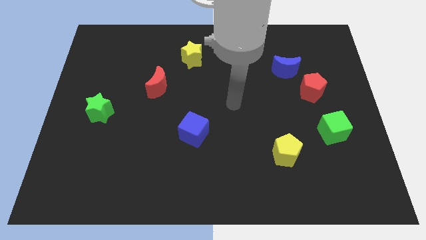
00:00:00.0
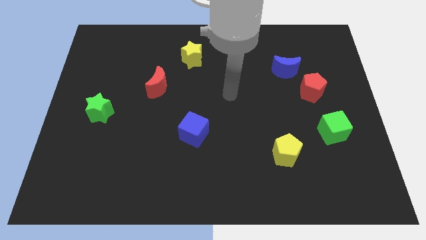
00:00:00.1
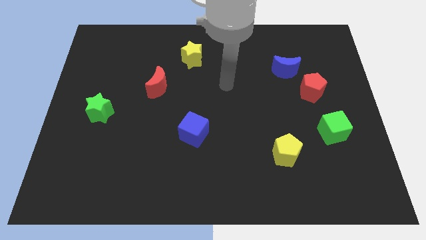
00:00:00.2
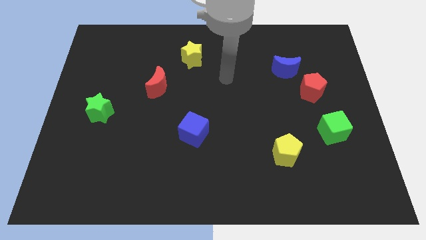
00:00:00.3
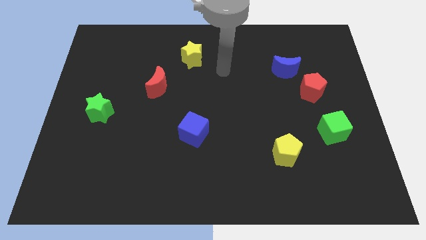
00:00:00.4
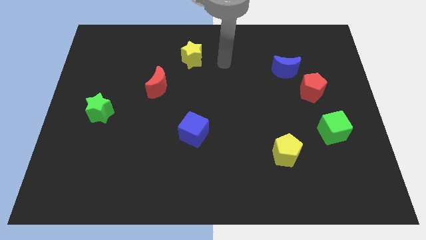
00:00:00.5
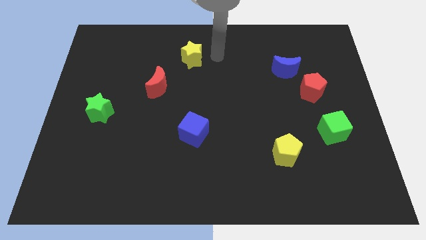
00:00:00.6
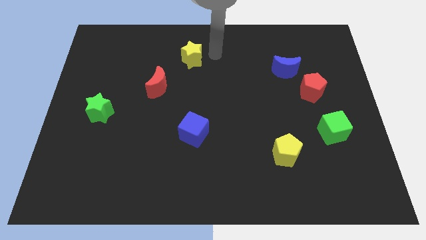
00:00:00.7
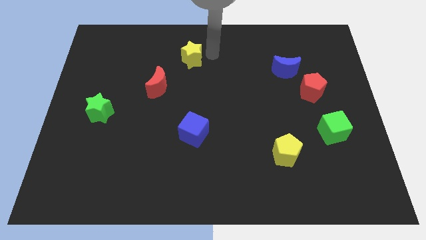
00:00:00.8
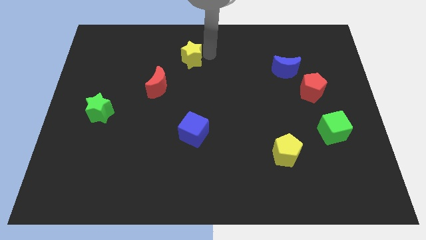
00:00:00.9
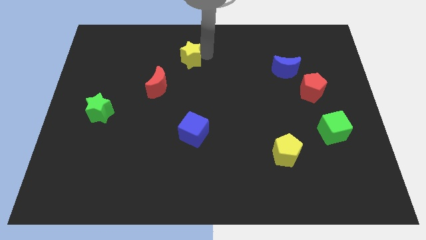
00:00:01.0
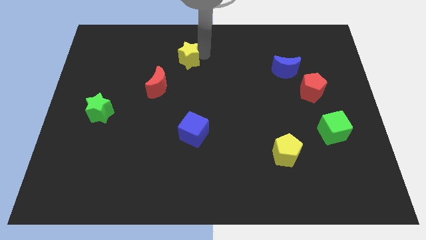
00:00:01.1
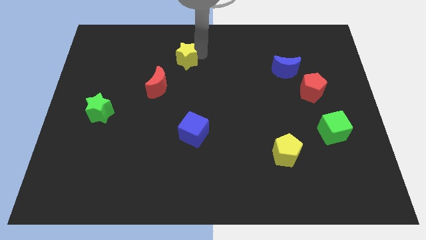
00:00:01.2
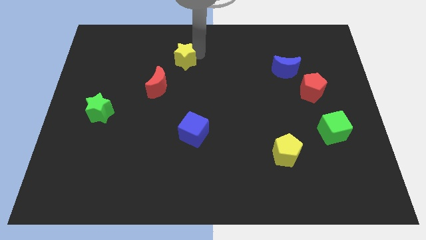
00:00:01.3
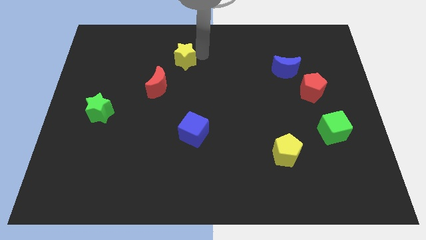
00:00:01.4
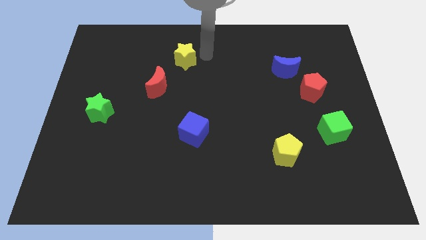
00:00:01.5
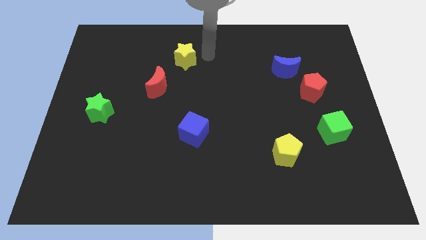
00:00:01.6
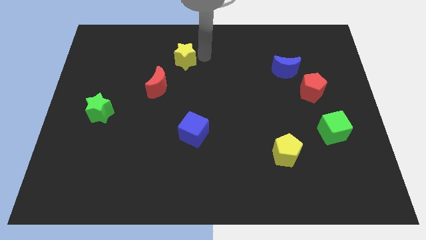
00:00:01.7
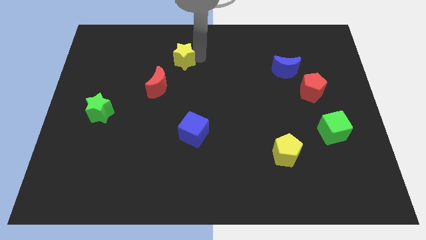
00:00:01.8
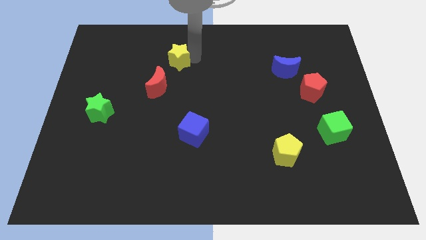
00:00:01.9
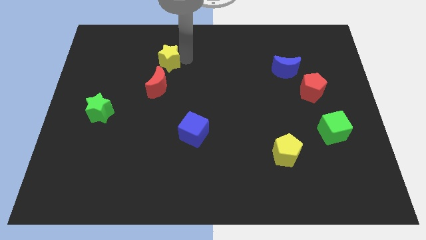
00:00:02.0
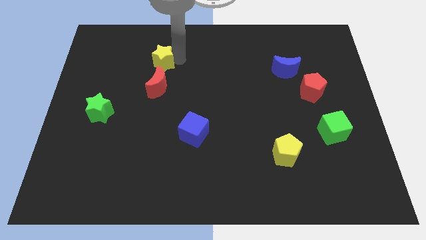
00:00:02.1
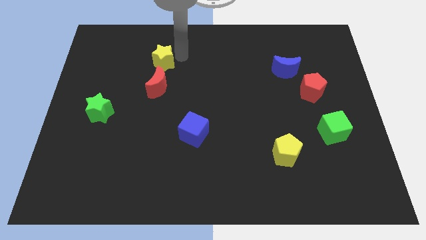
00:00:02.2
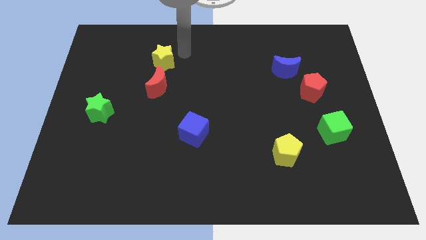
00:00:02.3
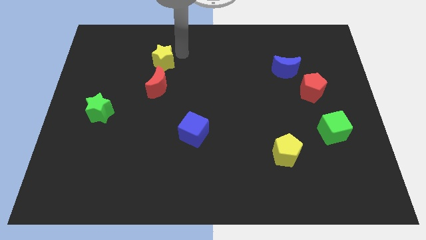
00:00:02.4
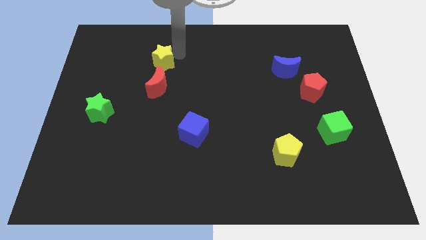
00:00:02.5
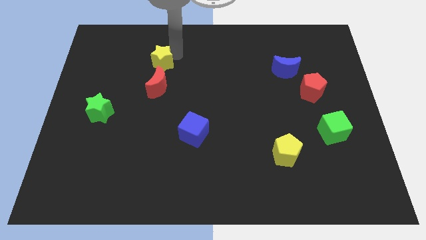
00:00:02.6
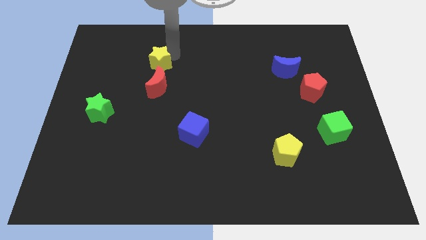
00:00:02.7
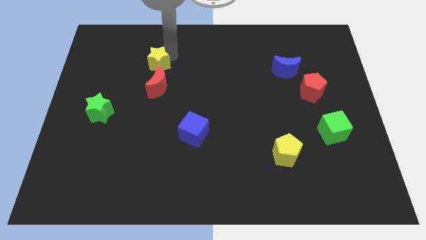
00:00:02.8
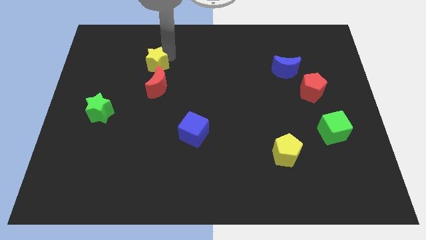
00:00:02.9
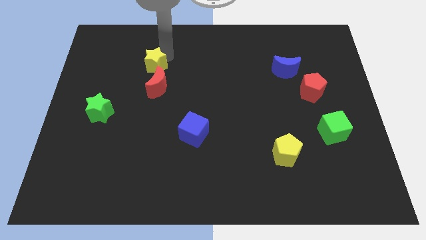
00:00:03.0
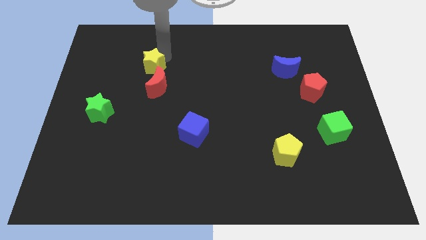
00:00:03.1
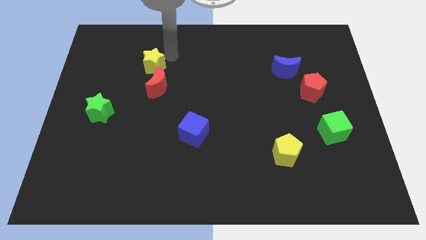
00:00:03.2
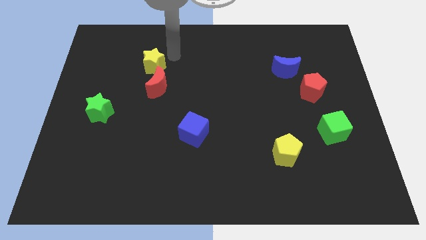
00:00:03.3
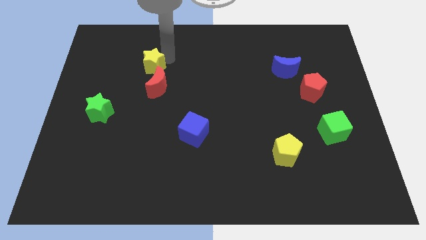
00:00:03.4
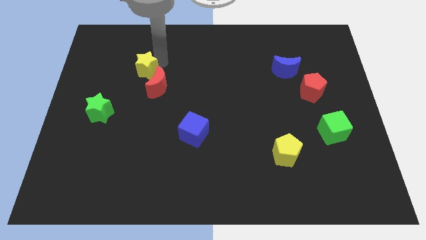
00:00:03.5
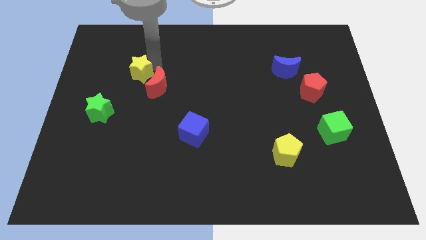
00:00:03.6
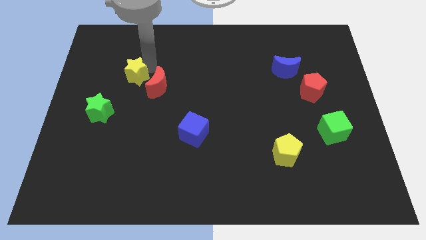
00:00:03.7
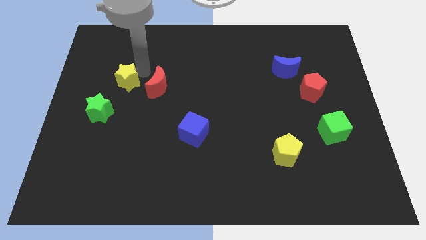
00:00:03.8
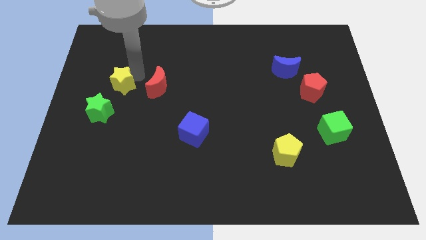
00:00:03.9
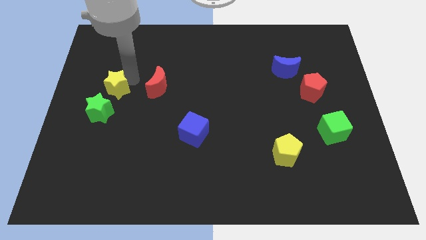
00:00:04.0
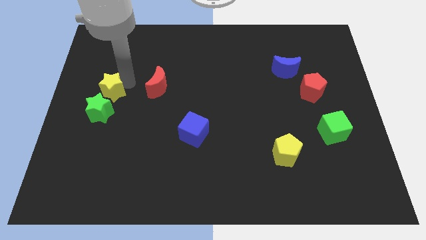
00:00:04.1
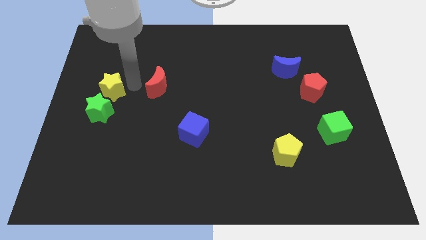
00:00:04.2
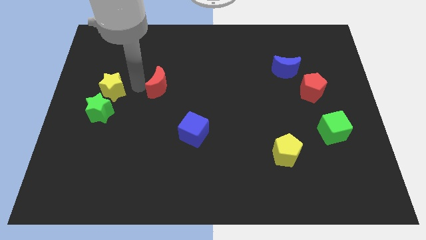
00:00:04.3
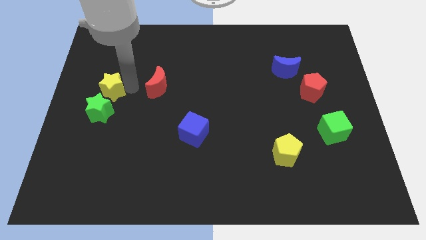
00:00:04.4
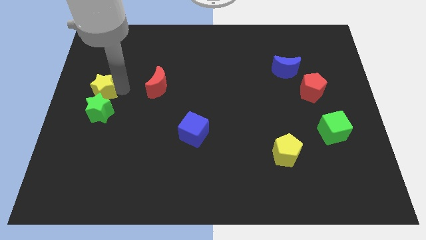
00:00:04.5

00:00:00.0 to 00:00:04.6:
put the yellow star to the center left

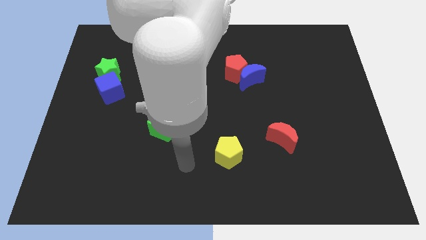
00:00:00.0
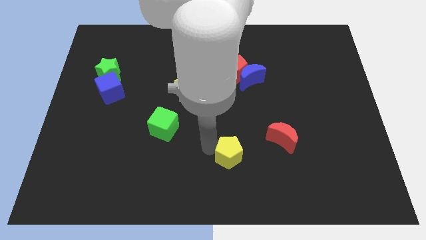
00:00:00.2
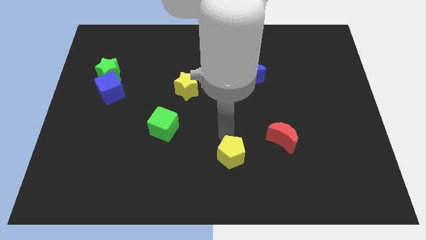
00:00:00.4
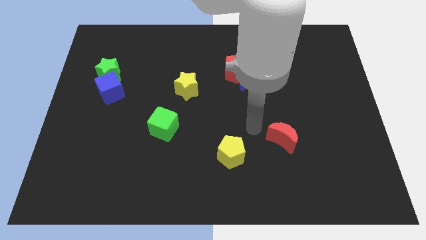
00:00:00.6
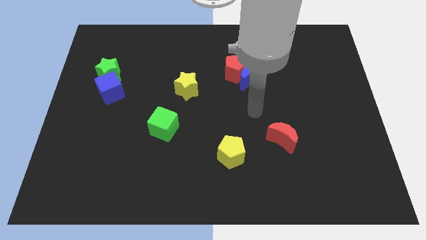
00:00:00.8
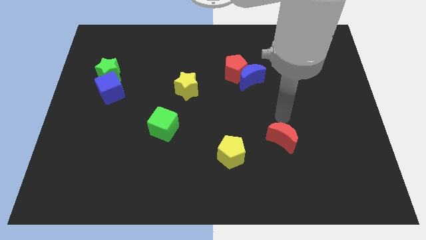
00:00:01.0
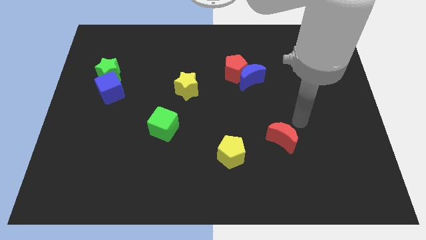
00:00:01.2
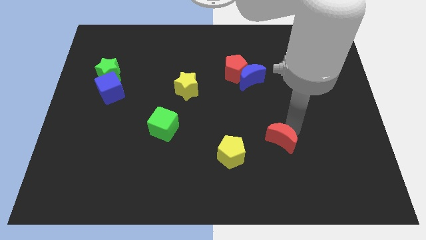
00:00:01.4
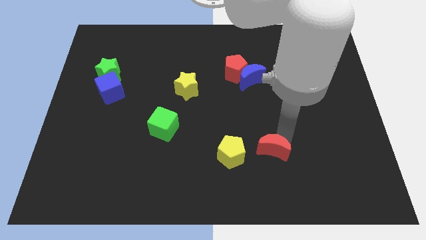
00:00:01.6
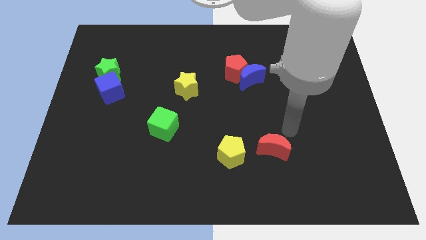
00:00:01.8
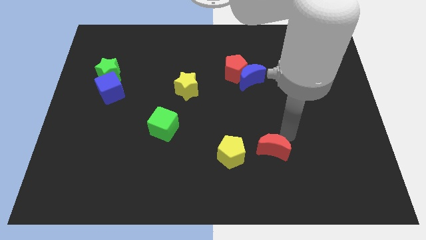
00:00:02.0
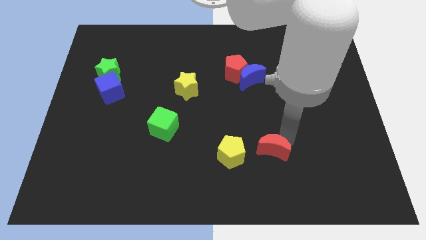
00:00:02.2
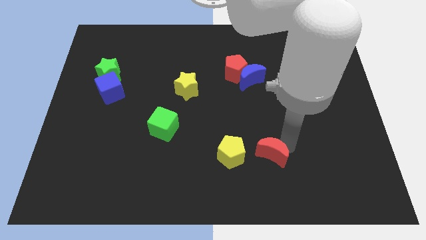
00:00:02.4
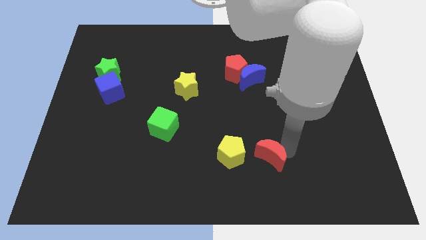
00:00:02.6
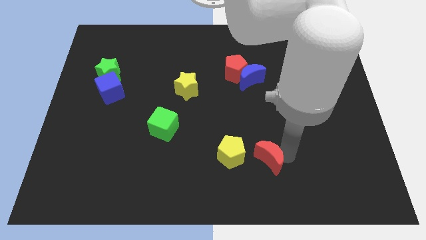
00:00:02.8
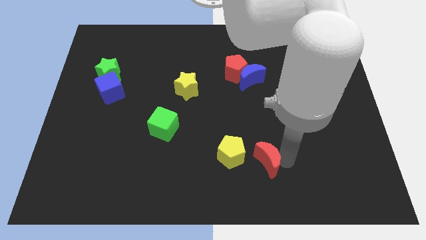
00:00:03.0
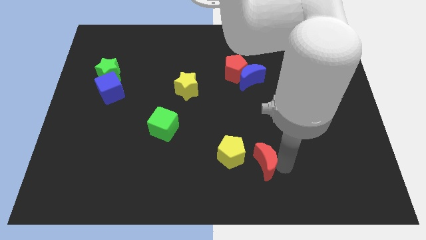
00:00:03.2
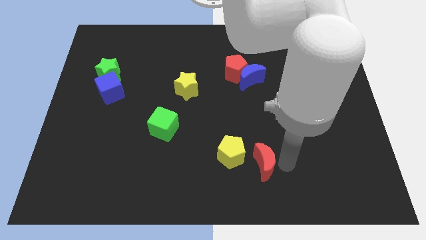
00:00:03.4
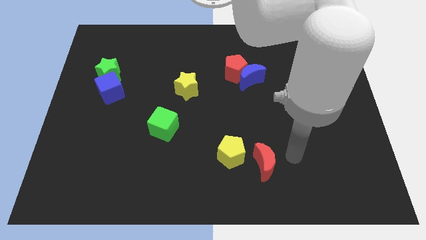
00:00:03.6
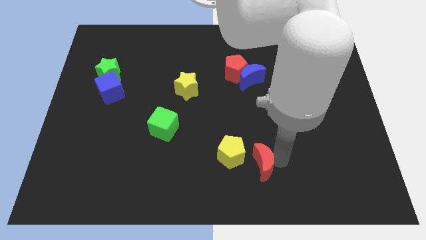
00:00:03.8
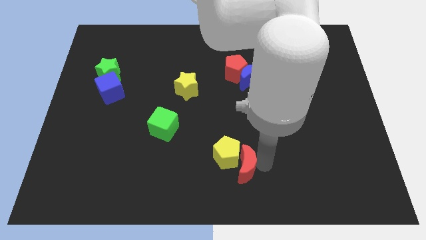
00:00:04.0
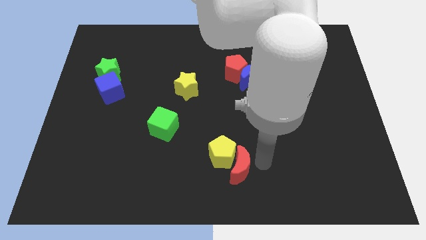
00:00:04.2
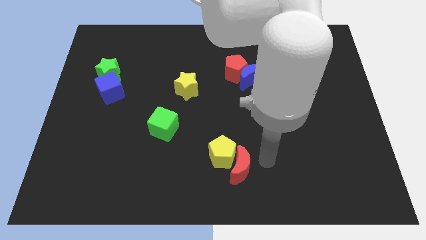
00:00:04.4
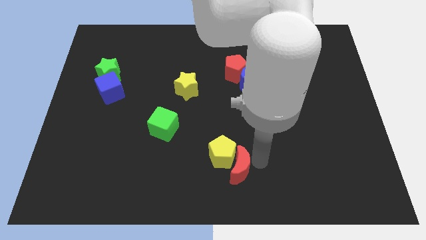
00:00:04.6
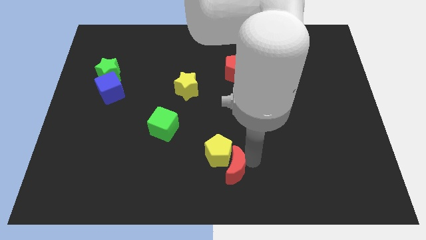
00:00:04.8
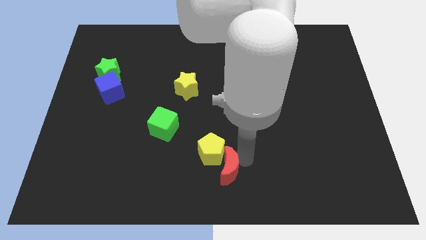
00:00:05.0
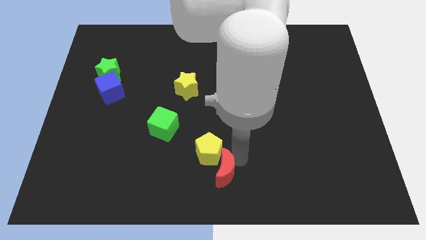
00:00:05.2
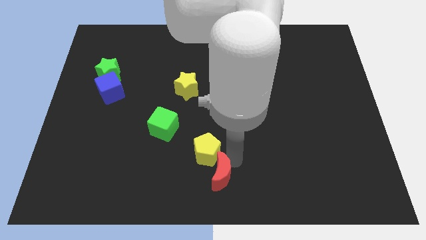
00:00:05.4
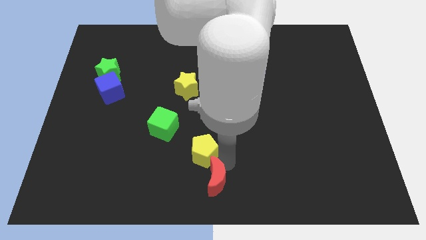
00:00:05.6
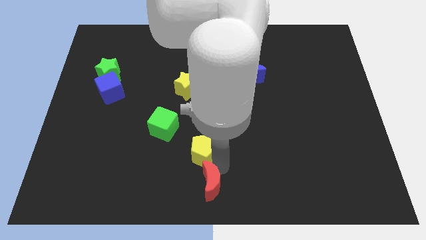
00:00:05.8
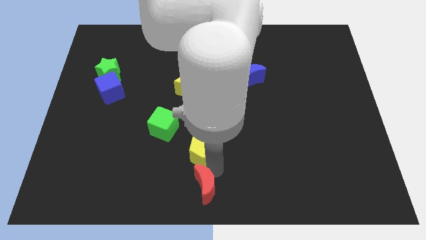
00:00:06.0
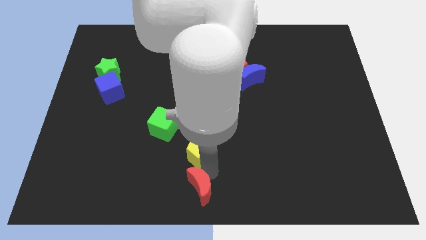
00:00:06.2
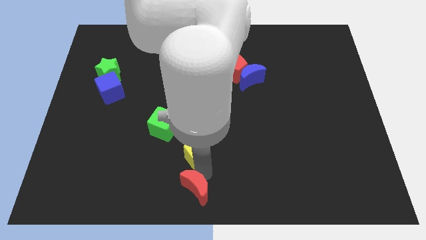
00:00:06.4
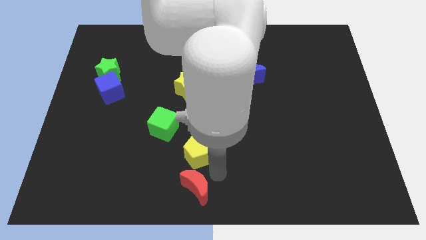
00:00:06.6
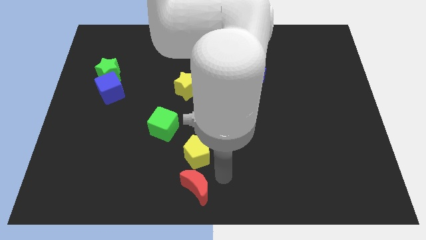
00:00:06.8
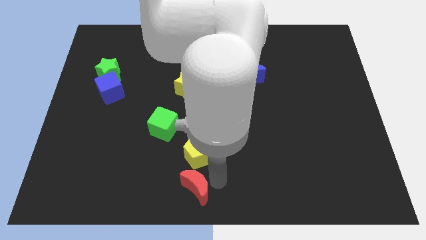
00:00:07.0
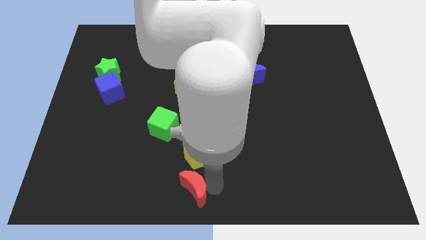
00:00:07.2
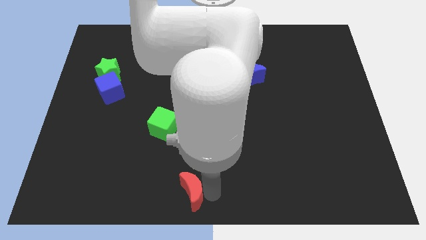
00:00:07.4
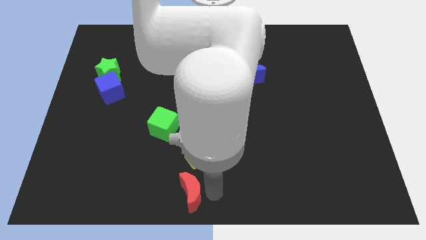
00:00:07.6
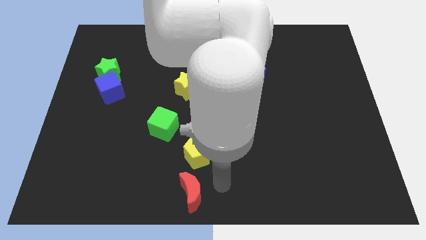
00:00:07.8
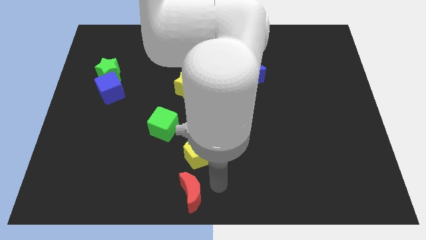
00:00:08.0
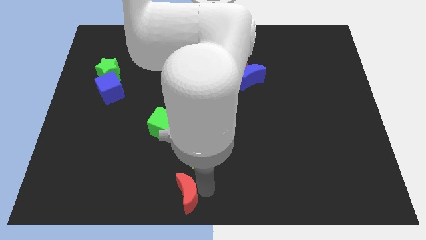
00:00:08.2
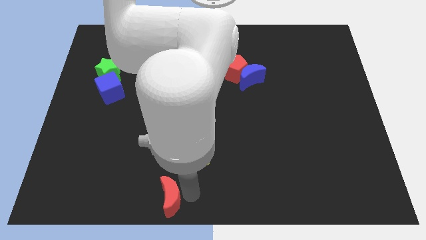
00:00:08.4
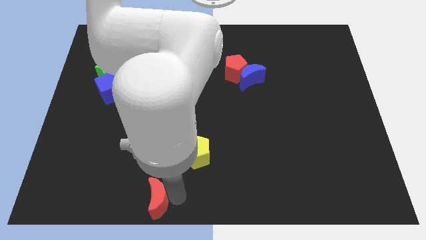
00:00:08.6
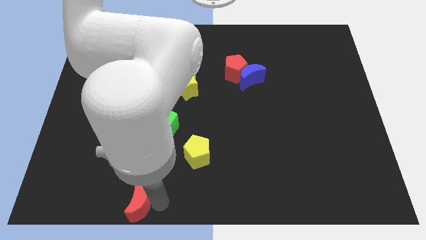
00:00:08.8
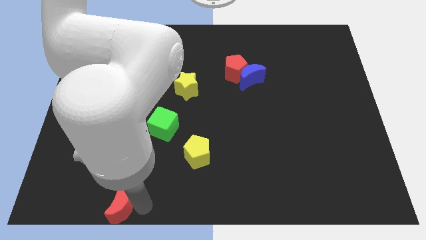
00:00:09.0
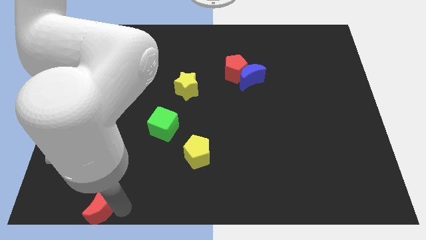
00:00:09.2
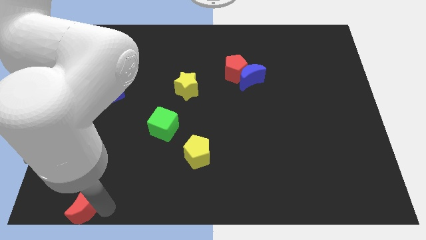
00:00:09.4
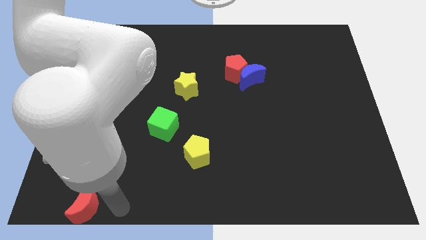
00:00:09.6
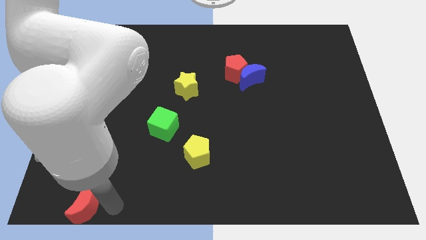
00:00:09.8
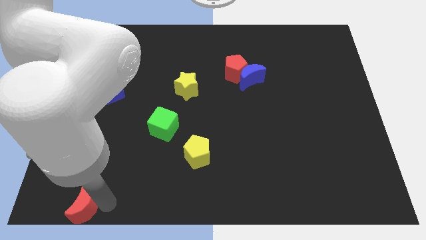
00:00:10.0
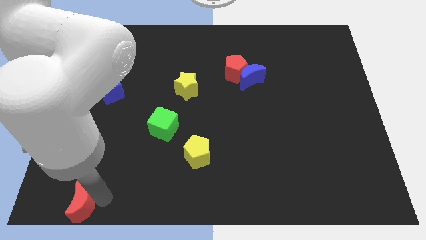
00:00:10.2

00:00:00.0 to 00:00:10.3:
put the red moon to the lower left corner
